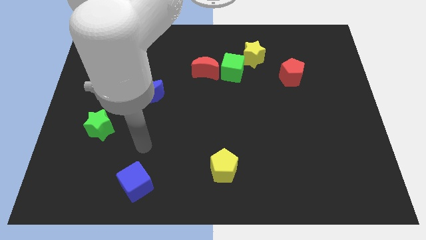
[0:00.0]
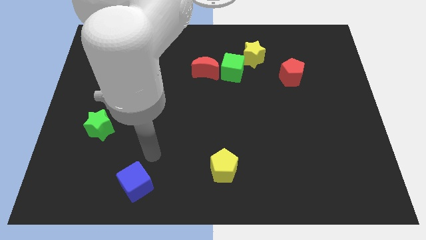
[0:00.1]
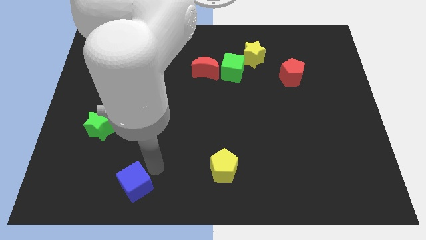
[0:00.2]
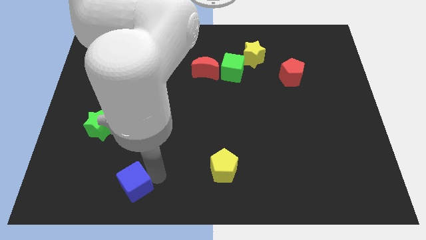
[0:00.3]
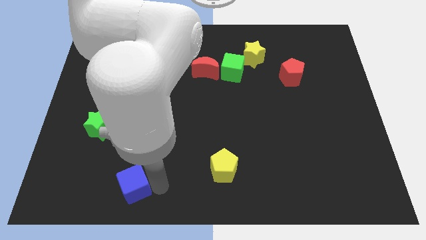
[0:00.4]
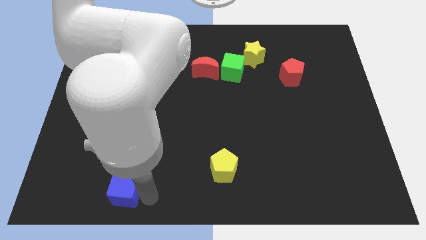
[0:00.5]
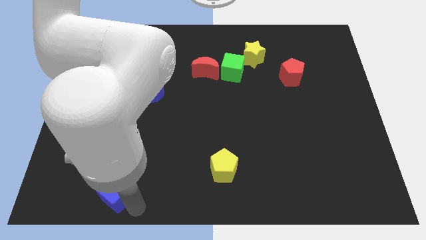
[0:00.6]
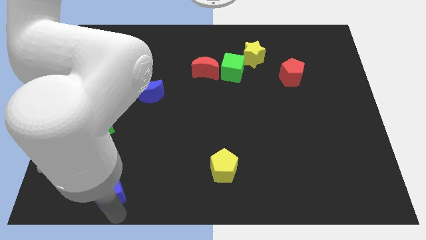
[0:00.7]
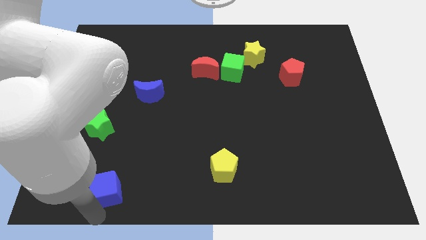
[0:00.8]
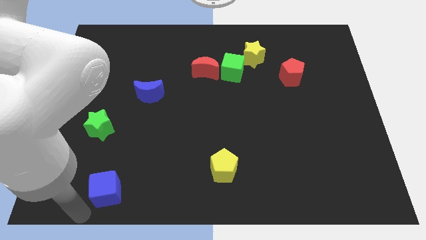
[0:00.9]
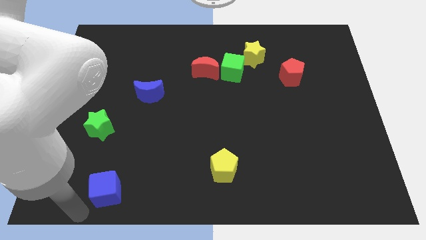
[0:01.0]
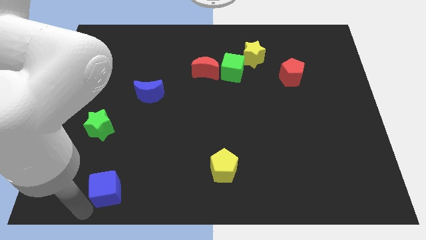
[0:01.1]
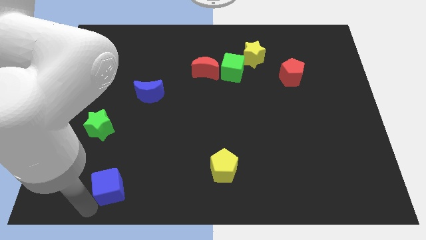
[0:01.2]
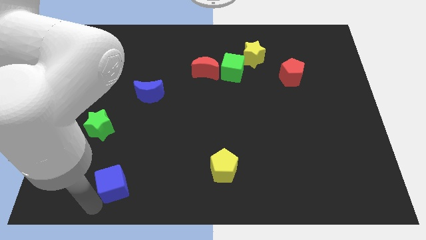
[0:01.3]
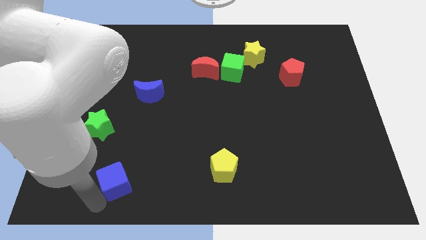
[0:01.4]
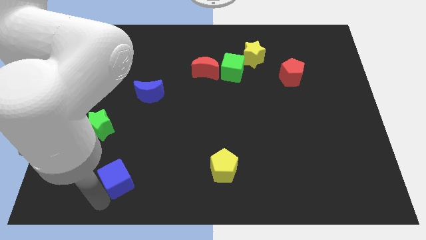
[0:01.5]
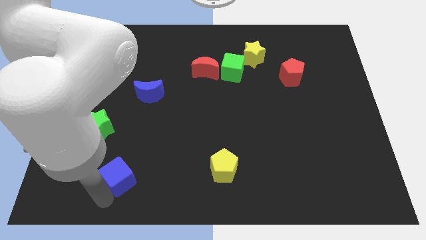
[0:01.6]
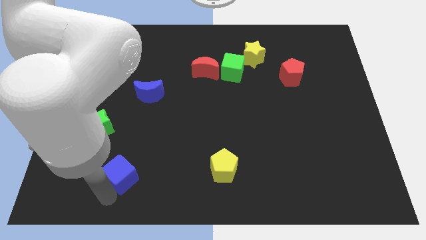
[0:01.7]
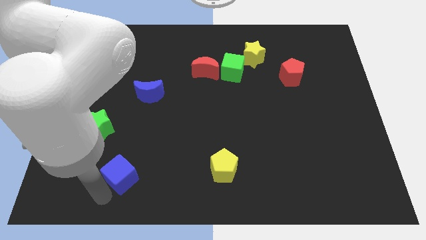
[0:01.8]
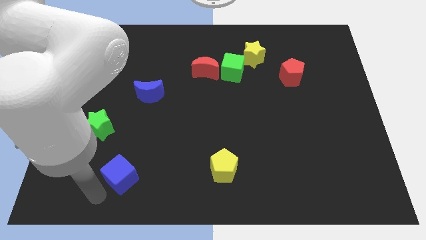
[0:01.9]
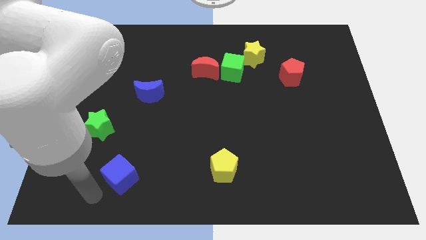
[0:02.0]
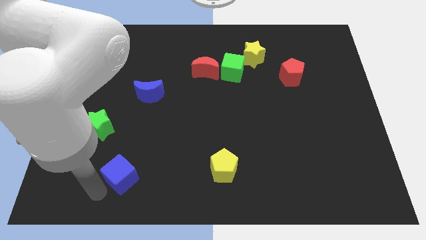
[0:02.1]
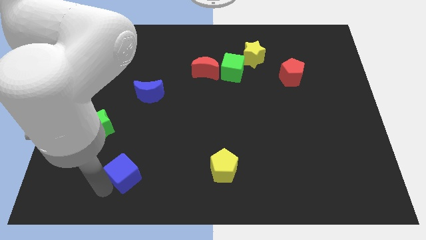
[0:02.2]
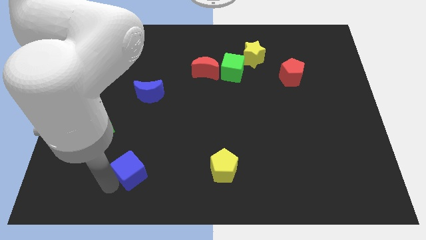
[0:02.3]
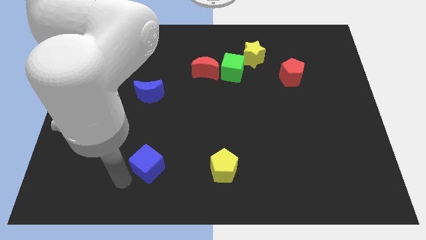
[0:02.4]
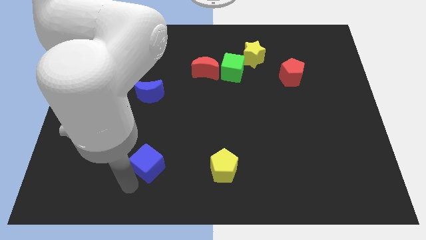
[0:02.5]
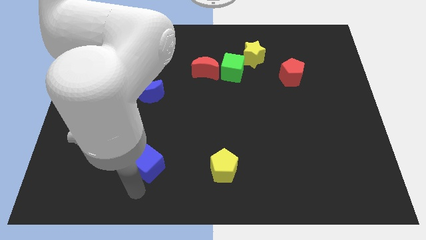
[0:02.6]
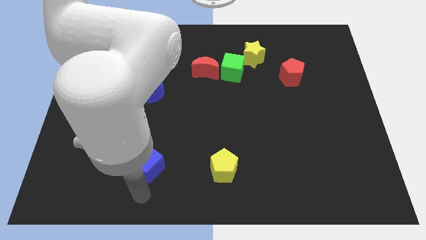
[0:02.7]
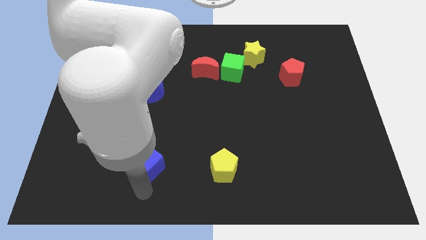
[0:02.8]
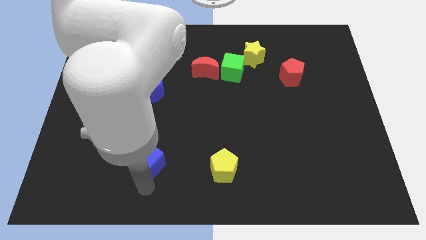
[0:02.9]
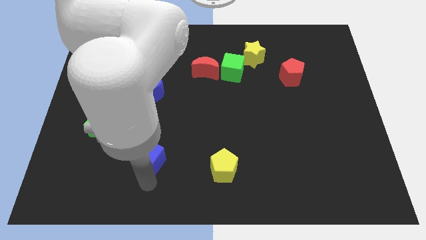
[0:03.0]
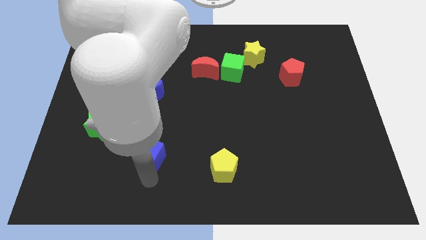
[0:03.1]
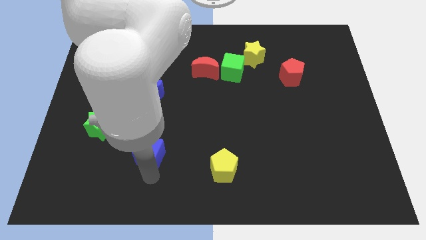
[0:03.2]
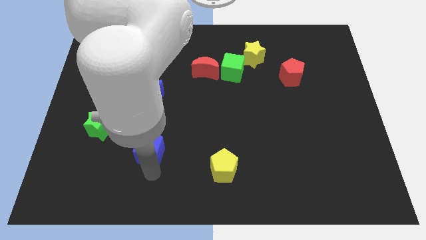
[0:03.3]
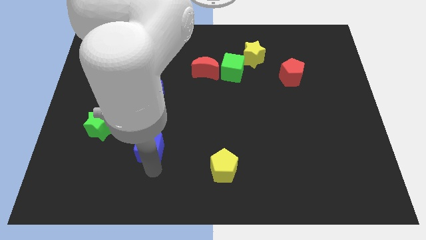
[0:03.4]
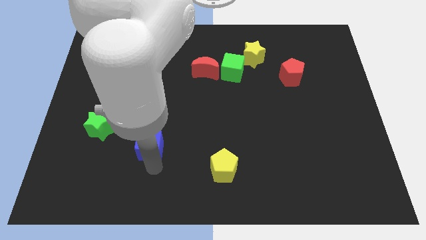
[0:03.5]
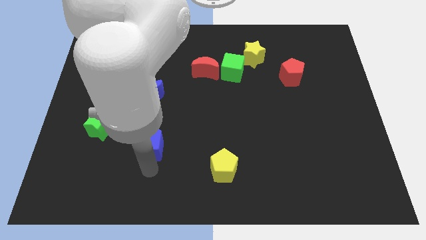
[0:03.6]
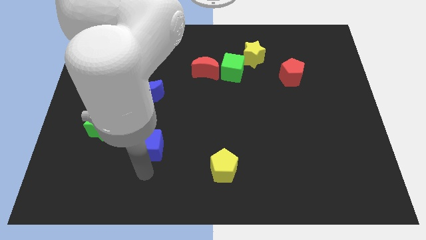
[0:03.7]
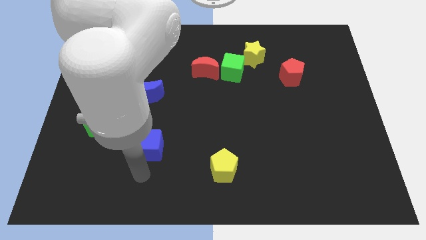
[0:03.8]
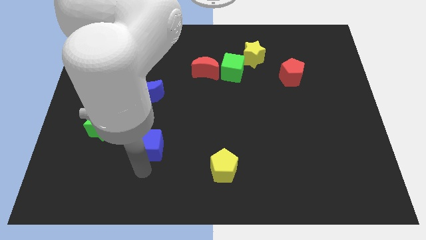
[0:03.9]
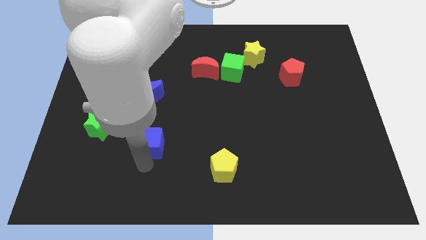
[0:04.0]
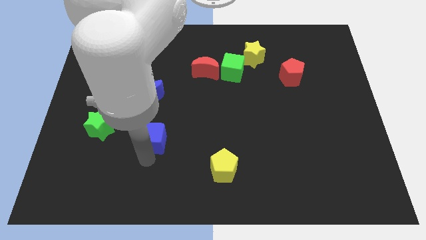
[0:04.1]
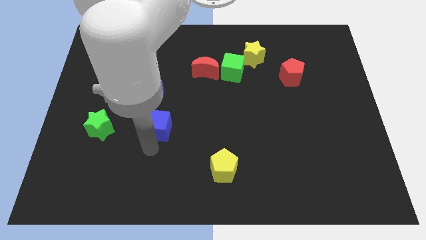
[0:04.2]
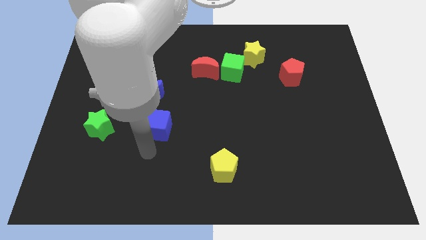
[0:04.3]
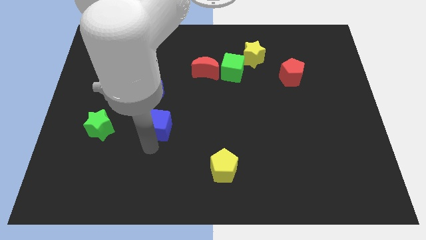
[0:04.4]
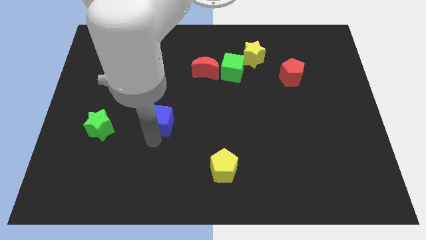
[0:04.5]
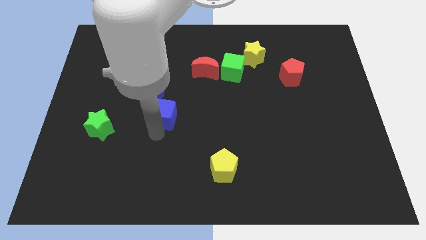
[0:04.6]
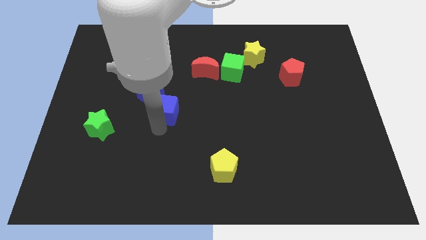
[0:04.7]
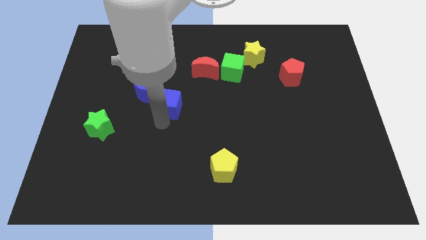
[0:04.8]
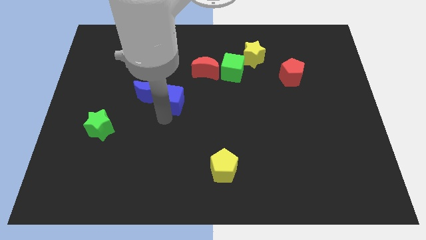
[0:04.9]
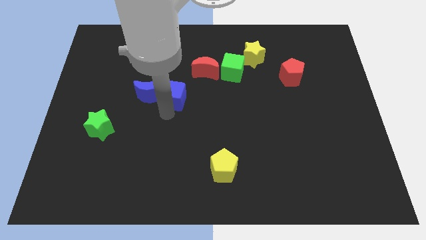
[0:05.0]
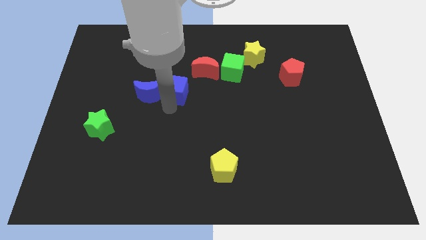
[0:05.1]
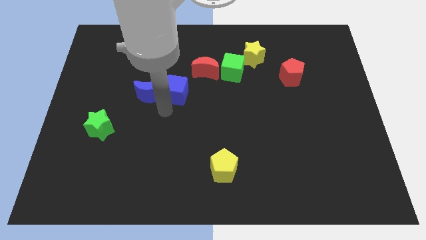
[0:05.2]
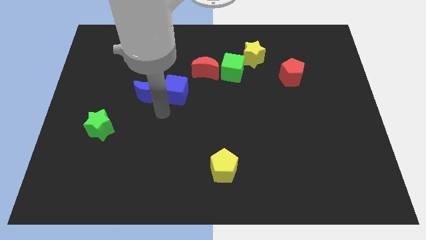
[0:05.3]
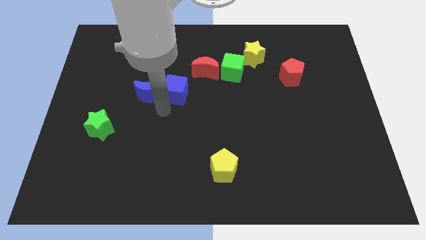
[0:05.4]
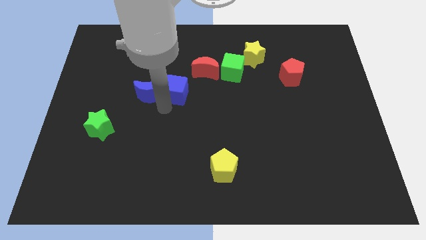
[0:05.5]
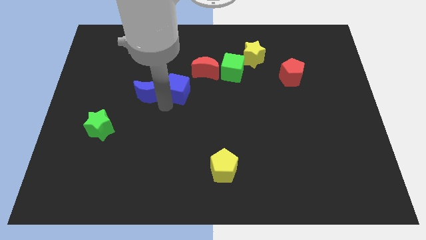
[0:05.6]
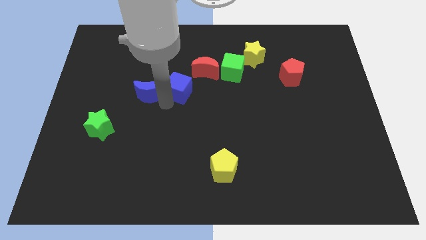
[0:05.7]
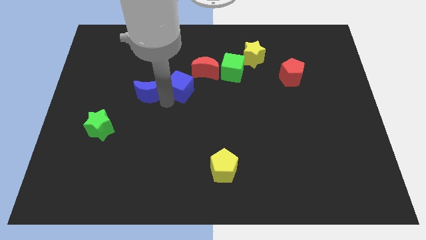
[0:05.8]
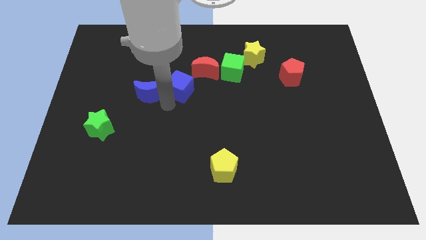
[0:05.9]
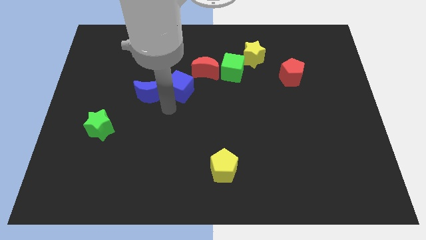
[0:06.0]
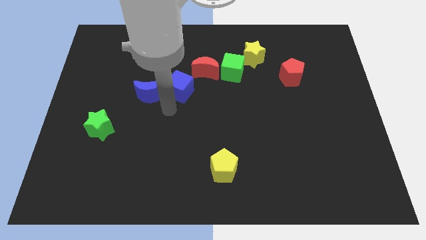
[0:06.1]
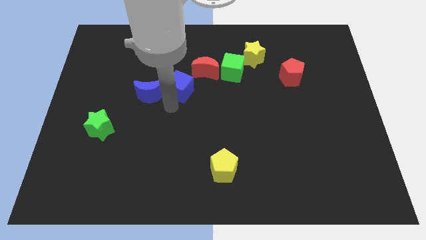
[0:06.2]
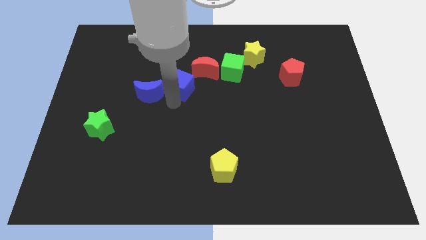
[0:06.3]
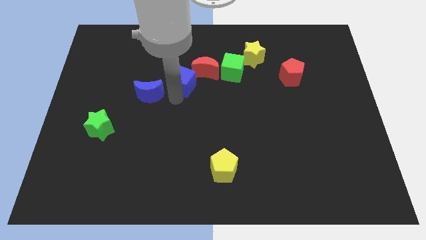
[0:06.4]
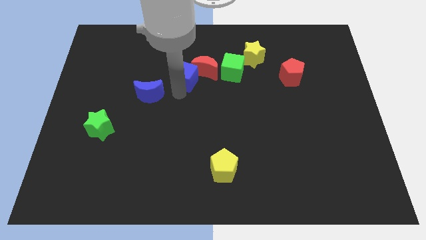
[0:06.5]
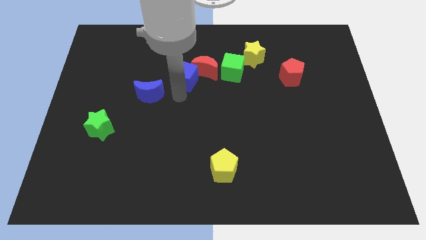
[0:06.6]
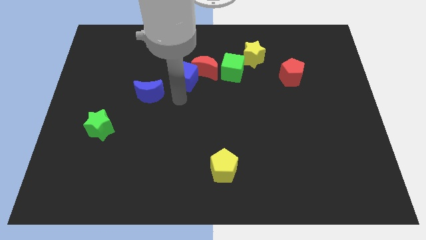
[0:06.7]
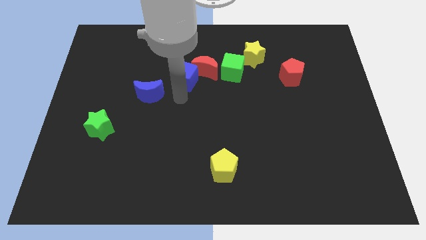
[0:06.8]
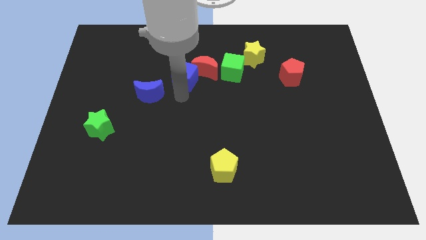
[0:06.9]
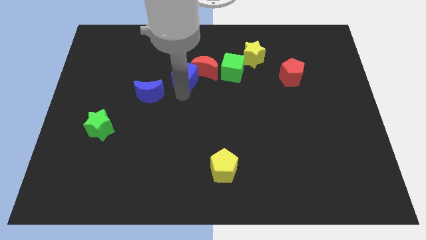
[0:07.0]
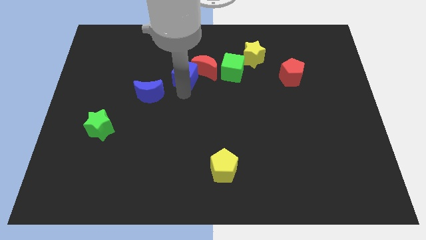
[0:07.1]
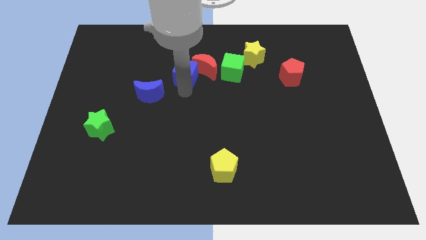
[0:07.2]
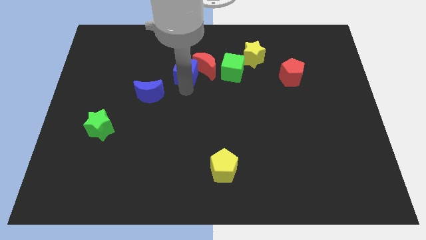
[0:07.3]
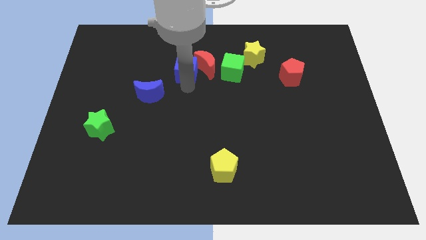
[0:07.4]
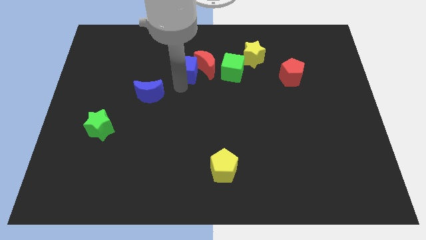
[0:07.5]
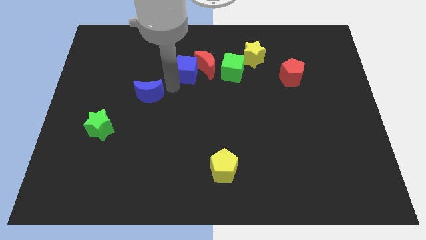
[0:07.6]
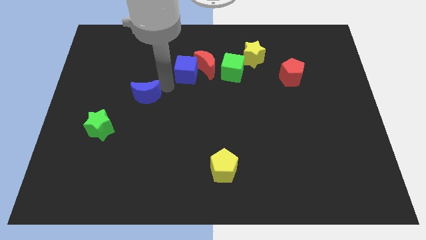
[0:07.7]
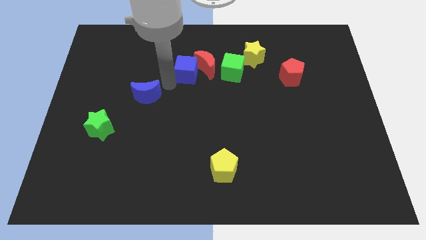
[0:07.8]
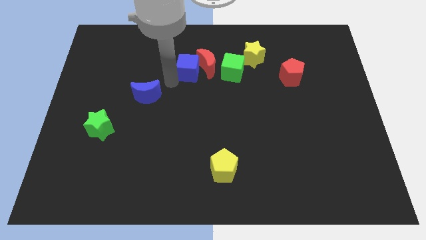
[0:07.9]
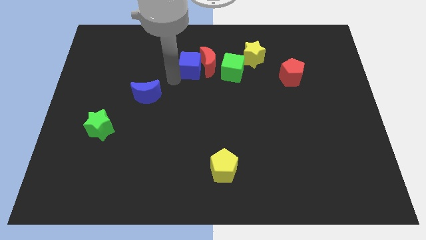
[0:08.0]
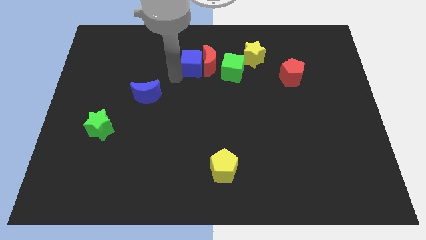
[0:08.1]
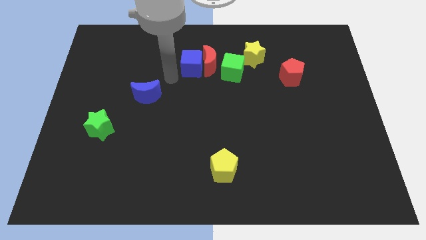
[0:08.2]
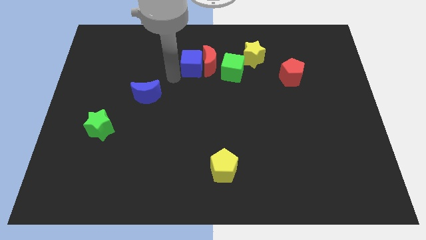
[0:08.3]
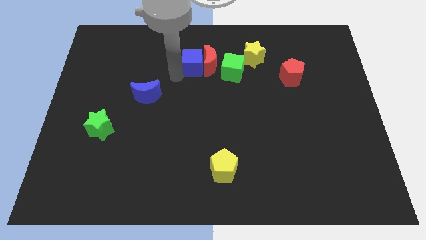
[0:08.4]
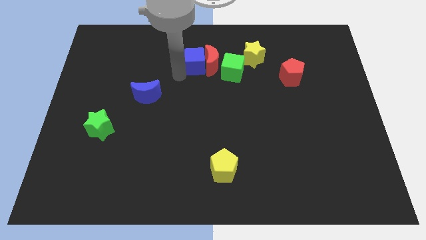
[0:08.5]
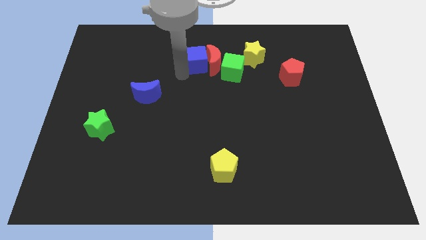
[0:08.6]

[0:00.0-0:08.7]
slide the blue cube diagonally up and to the left of the green cube
